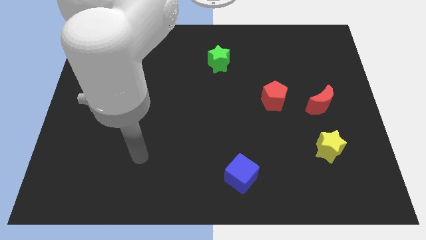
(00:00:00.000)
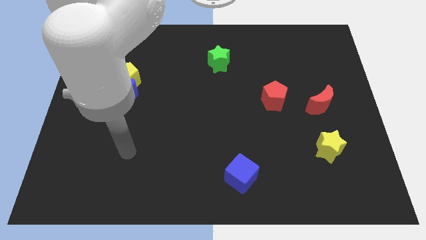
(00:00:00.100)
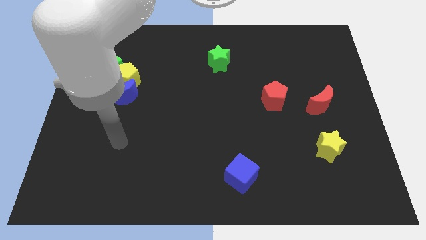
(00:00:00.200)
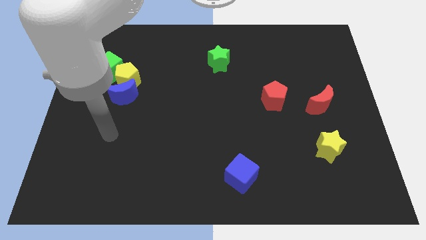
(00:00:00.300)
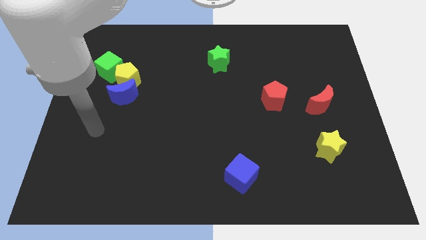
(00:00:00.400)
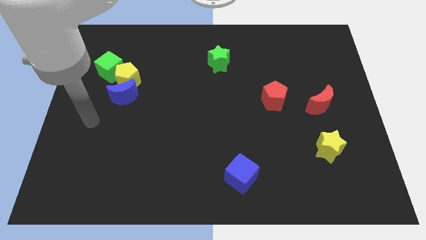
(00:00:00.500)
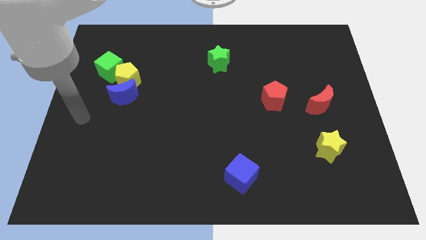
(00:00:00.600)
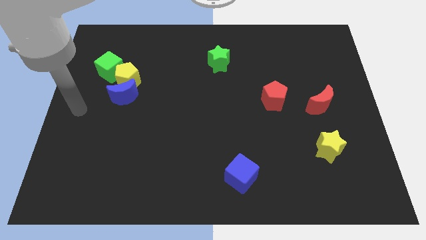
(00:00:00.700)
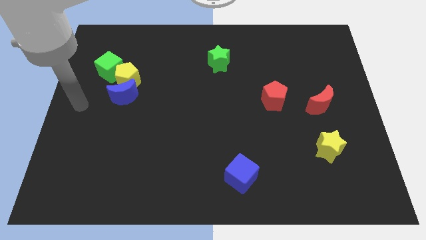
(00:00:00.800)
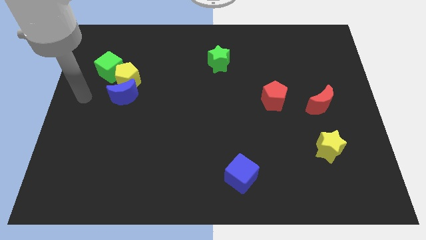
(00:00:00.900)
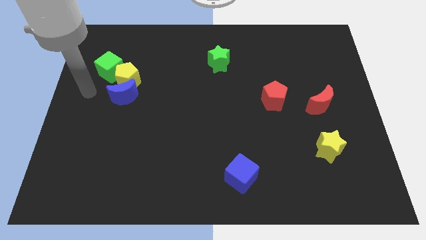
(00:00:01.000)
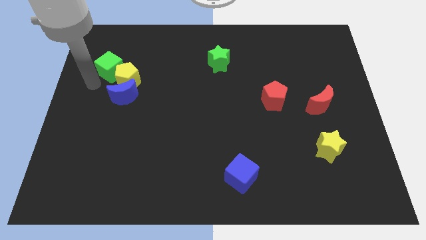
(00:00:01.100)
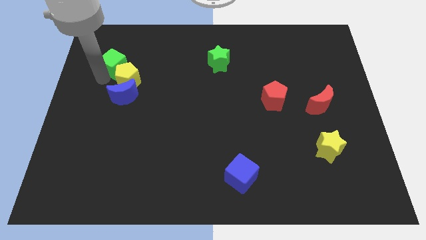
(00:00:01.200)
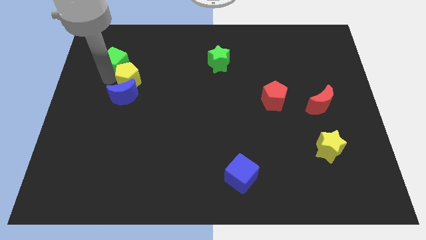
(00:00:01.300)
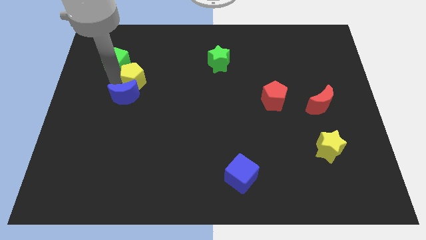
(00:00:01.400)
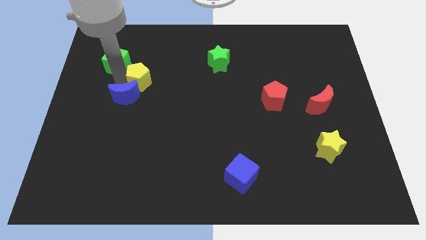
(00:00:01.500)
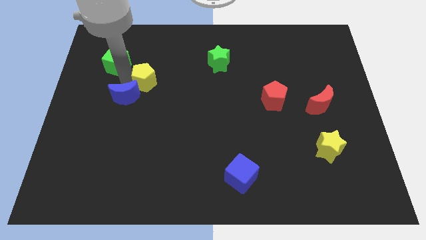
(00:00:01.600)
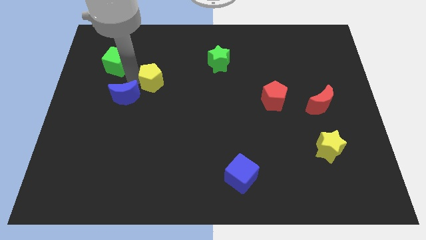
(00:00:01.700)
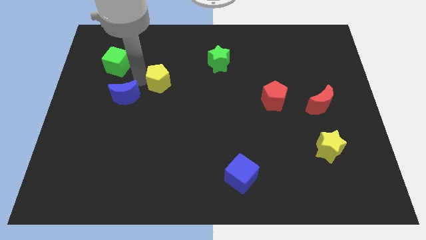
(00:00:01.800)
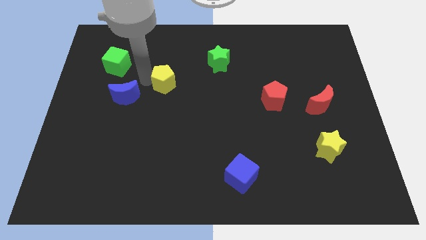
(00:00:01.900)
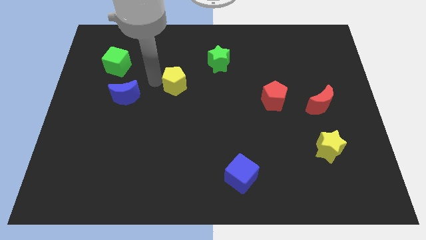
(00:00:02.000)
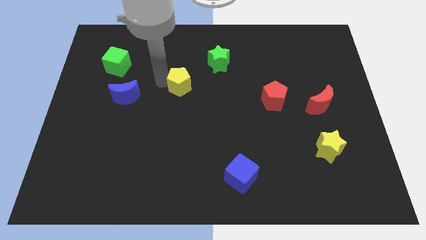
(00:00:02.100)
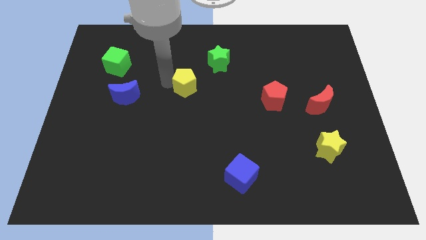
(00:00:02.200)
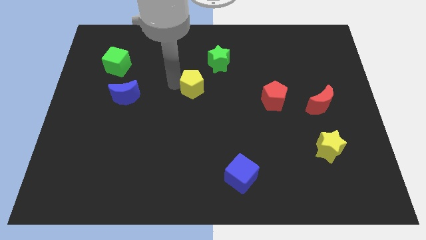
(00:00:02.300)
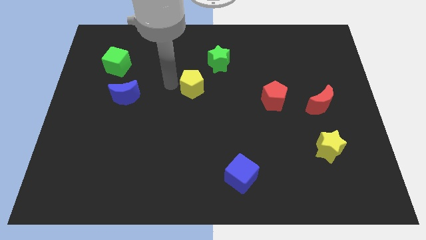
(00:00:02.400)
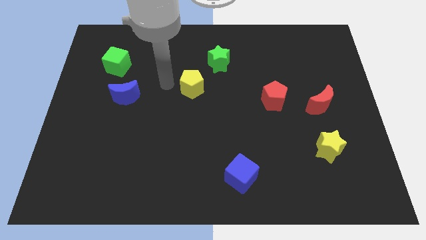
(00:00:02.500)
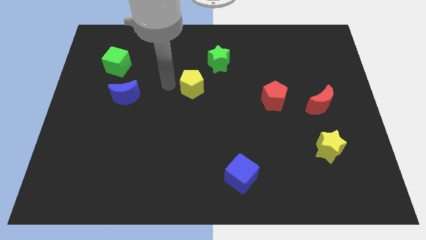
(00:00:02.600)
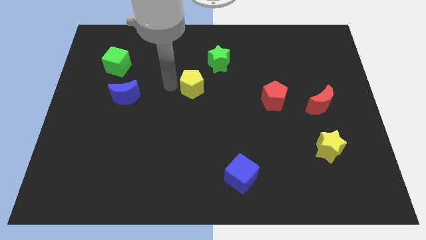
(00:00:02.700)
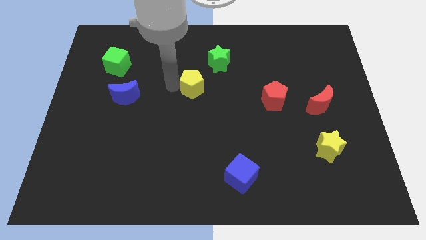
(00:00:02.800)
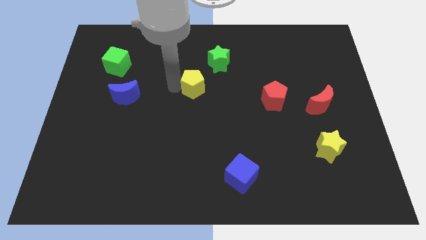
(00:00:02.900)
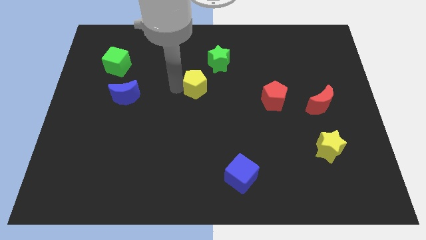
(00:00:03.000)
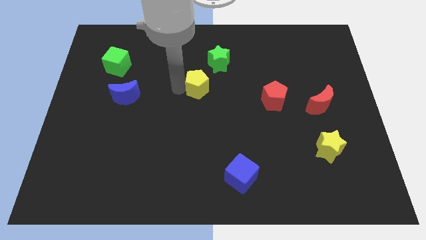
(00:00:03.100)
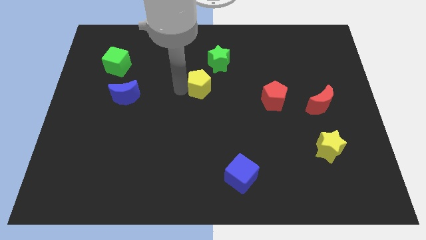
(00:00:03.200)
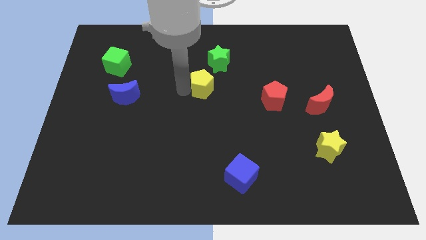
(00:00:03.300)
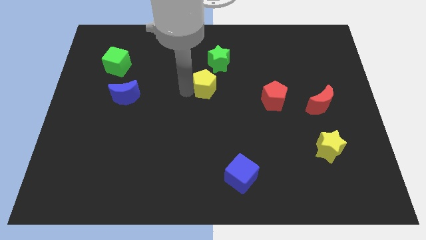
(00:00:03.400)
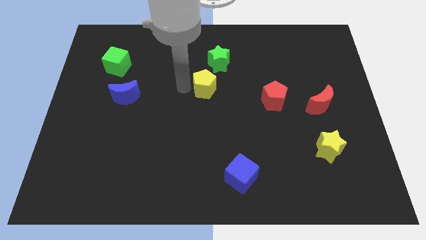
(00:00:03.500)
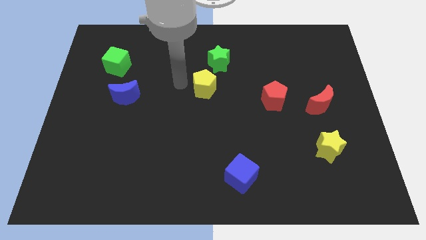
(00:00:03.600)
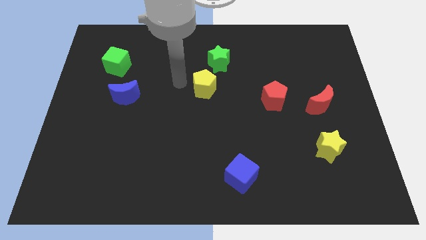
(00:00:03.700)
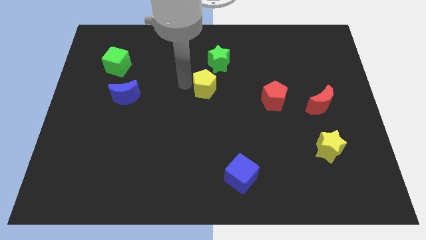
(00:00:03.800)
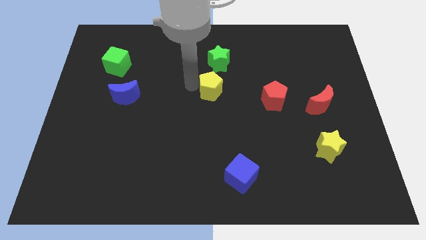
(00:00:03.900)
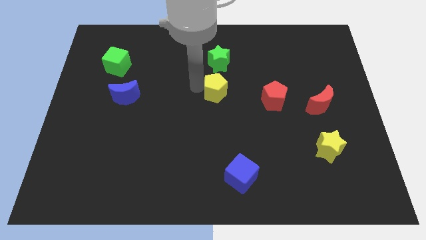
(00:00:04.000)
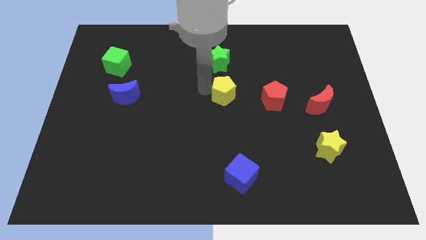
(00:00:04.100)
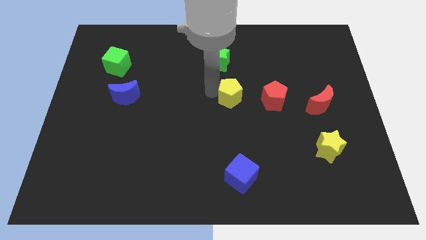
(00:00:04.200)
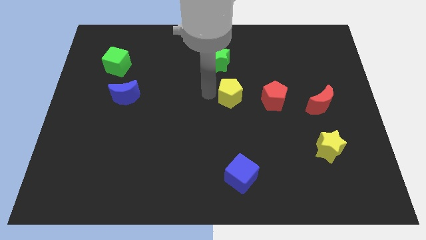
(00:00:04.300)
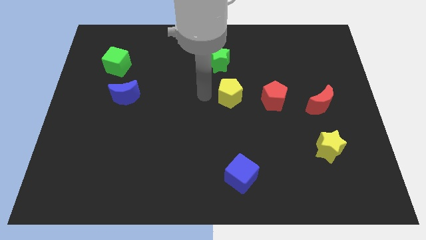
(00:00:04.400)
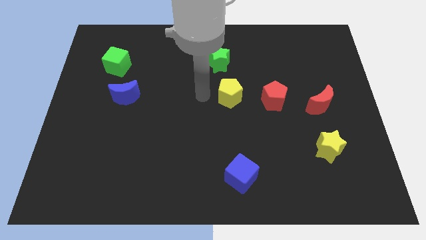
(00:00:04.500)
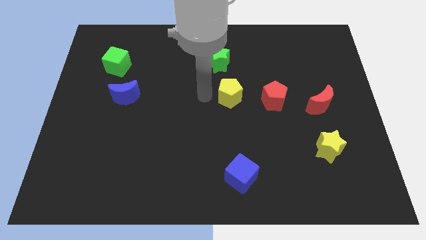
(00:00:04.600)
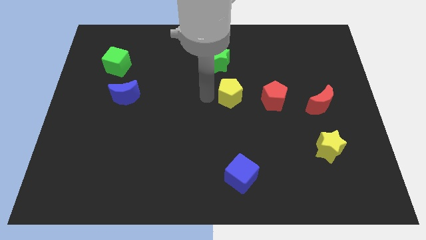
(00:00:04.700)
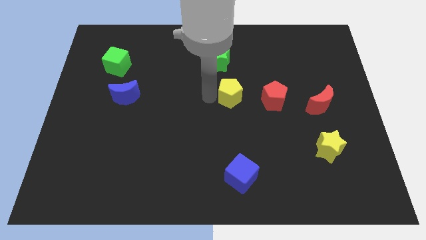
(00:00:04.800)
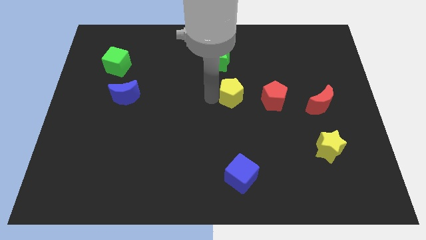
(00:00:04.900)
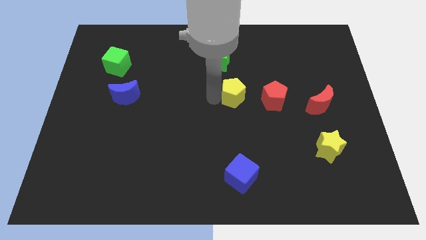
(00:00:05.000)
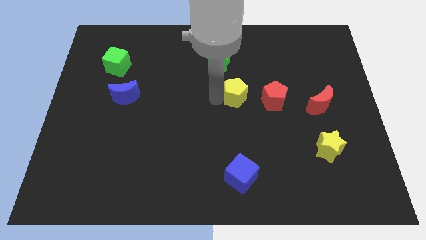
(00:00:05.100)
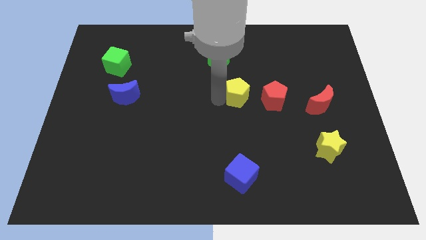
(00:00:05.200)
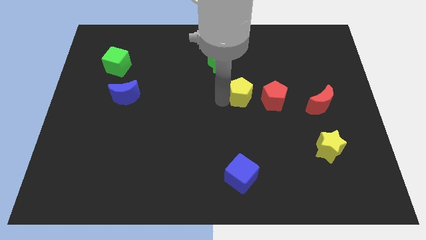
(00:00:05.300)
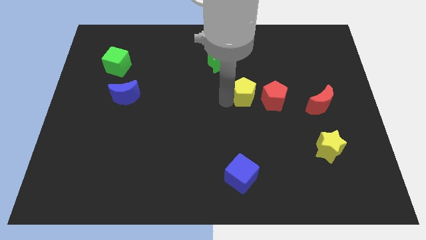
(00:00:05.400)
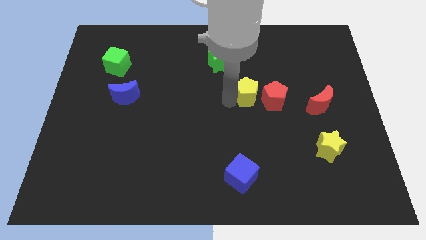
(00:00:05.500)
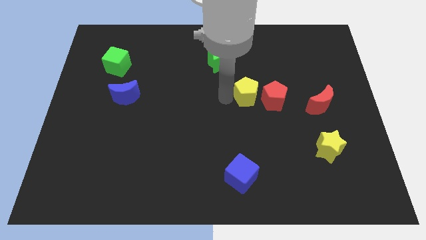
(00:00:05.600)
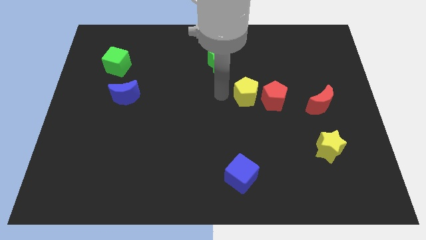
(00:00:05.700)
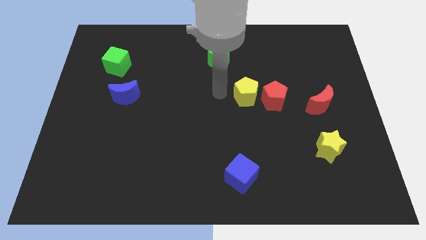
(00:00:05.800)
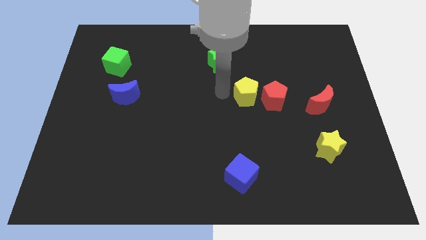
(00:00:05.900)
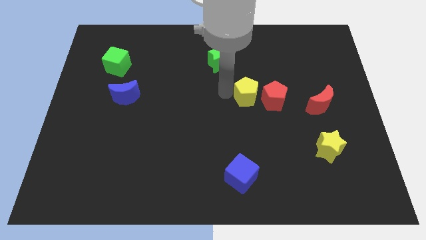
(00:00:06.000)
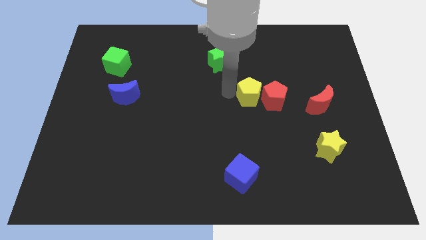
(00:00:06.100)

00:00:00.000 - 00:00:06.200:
slide the yellow pentagon to the red pentagon

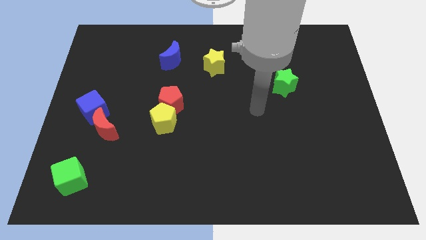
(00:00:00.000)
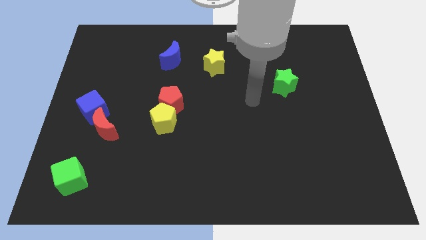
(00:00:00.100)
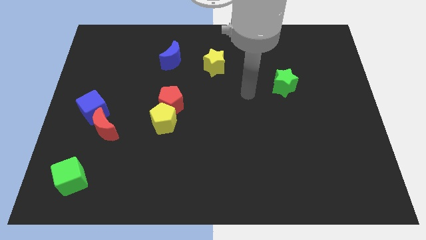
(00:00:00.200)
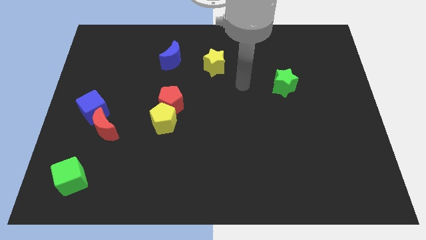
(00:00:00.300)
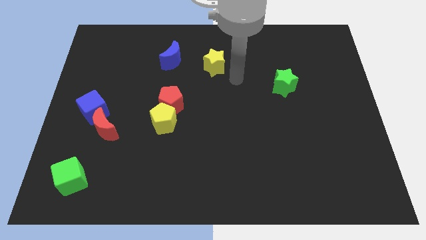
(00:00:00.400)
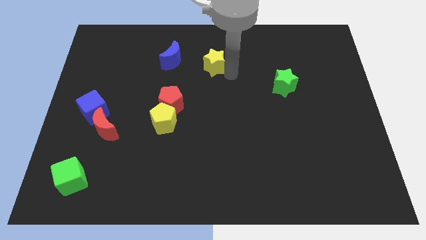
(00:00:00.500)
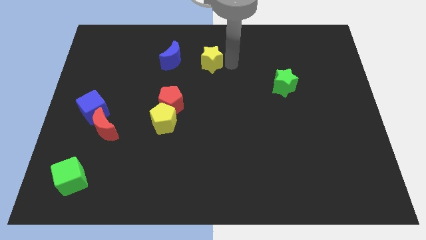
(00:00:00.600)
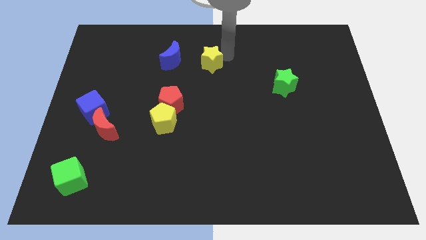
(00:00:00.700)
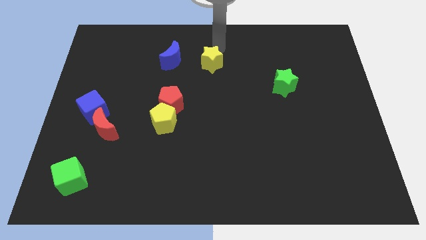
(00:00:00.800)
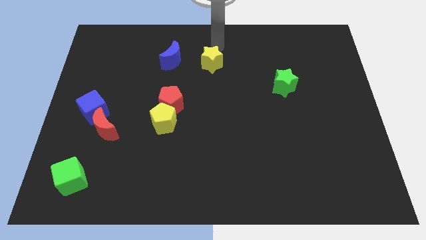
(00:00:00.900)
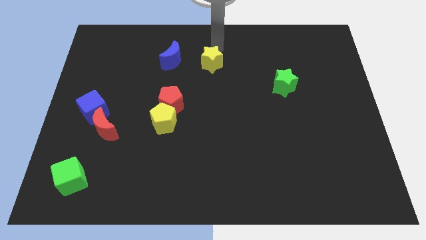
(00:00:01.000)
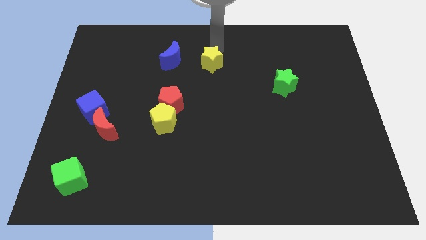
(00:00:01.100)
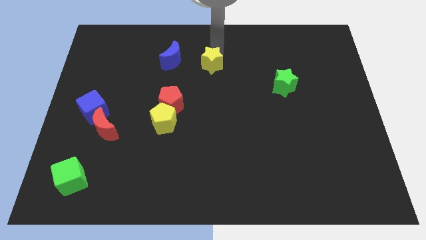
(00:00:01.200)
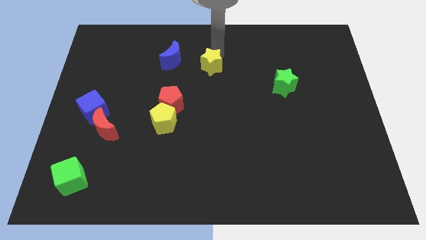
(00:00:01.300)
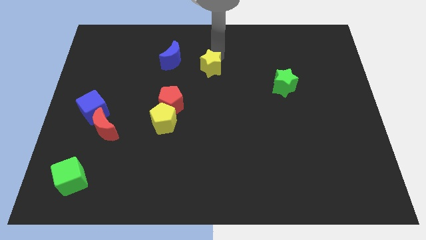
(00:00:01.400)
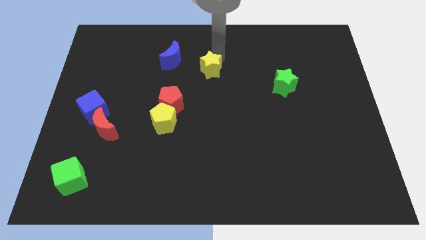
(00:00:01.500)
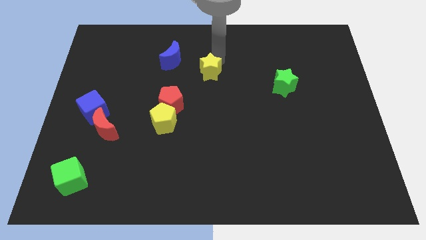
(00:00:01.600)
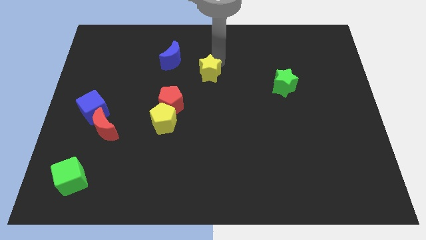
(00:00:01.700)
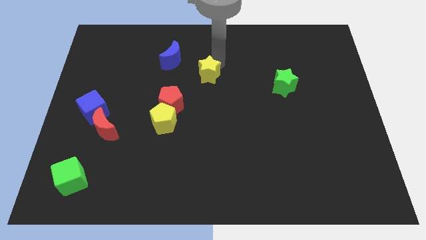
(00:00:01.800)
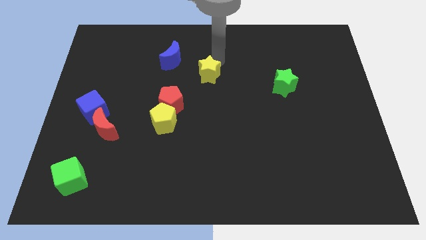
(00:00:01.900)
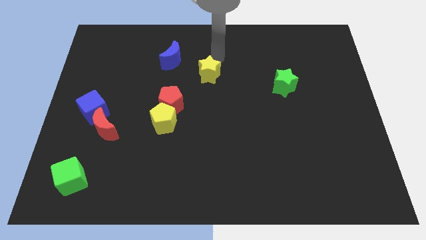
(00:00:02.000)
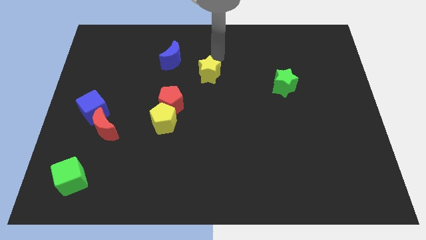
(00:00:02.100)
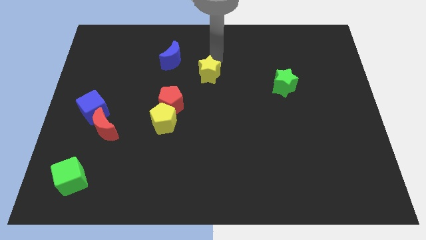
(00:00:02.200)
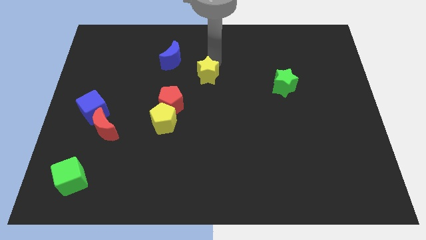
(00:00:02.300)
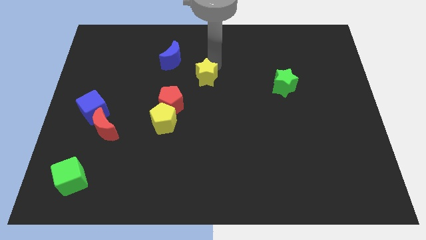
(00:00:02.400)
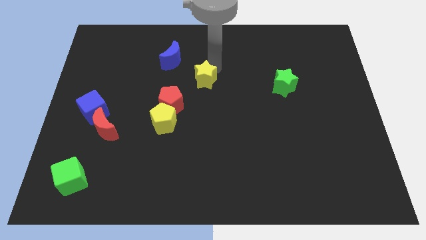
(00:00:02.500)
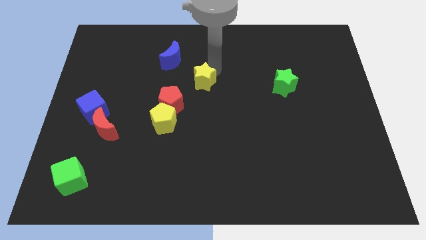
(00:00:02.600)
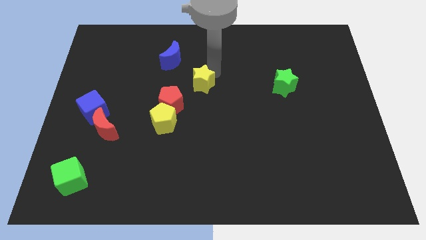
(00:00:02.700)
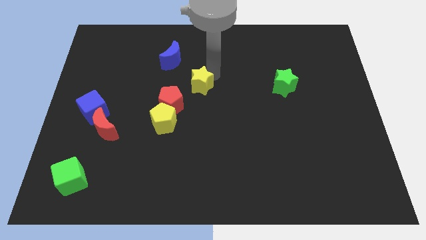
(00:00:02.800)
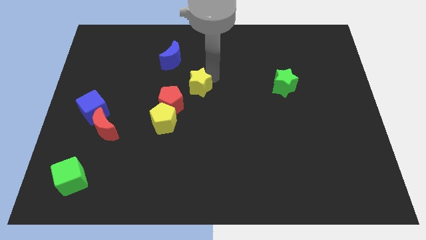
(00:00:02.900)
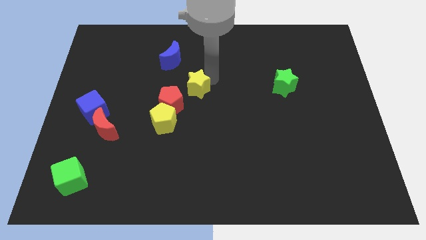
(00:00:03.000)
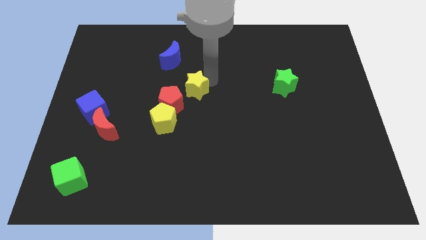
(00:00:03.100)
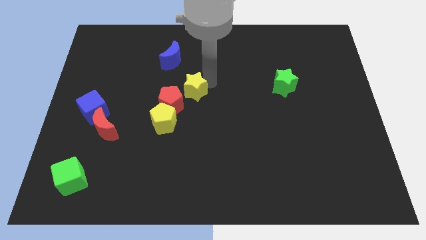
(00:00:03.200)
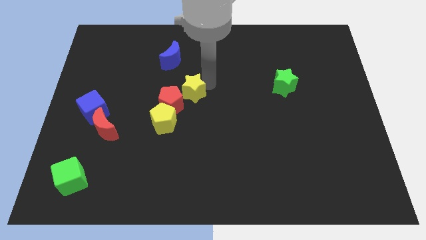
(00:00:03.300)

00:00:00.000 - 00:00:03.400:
move the yellow star to the red pentagon
